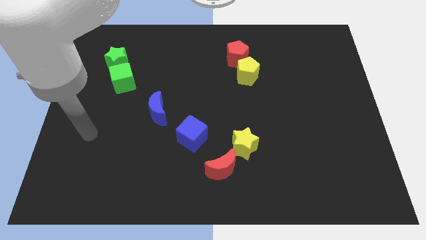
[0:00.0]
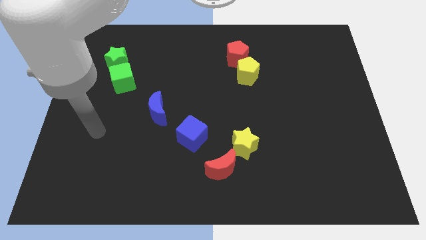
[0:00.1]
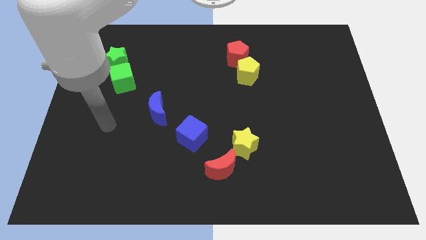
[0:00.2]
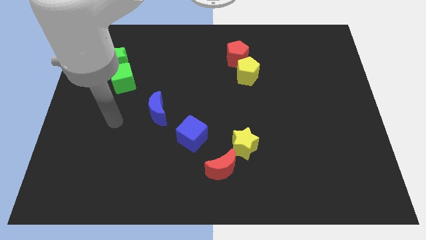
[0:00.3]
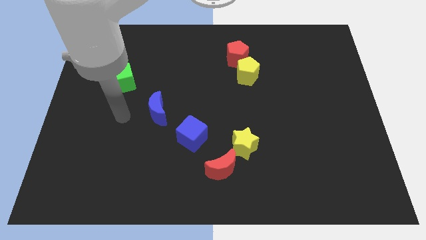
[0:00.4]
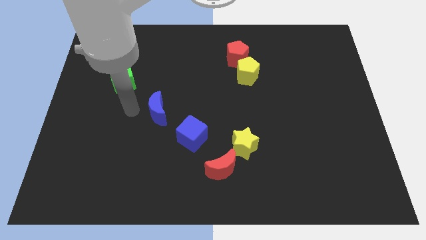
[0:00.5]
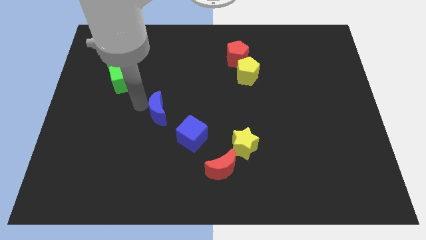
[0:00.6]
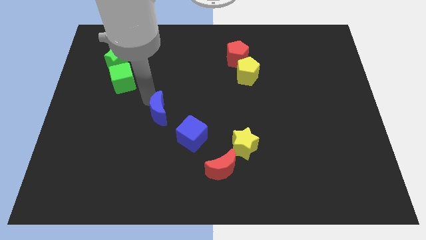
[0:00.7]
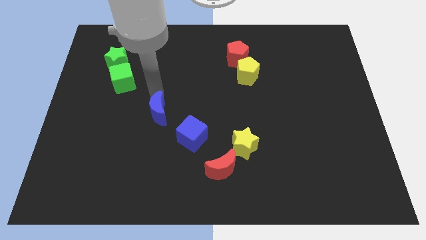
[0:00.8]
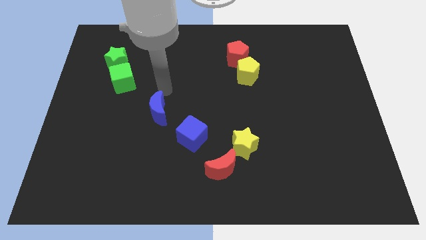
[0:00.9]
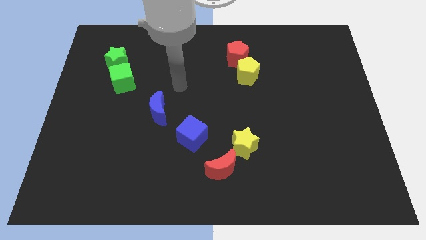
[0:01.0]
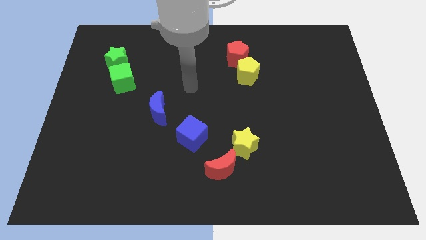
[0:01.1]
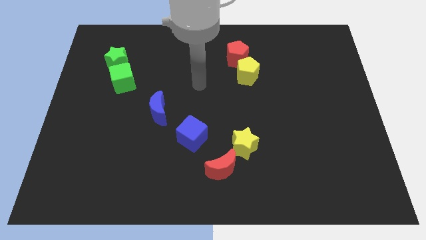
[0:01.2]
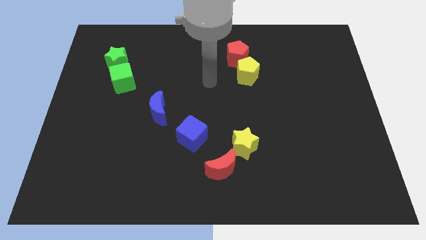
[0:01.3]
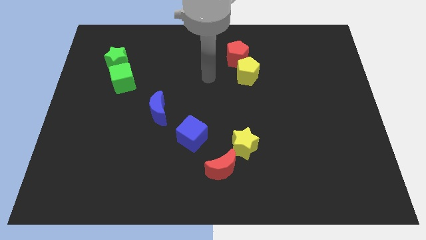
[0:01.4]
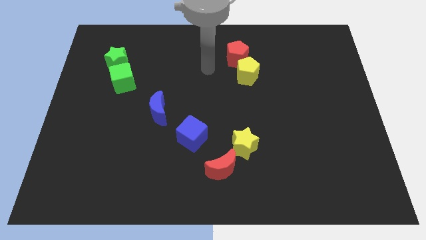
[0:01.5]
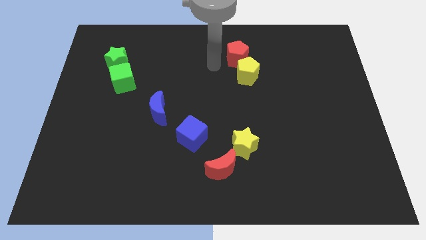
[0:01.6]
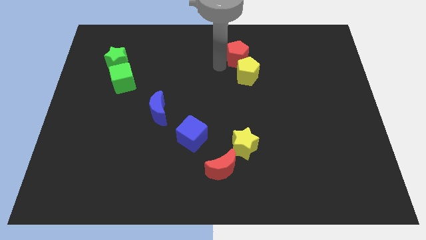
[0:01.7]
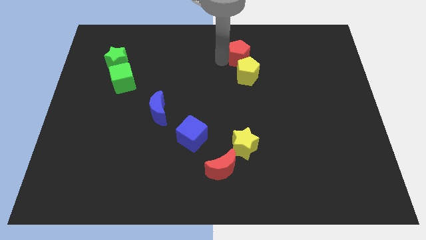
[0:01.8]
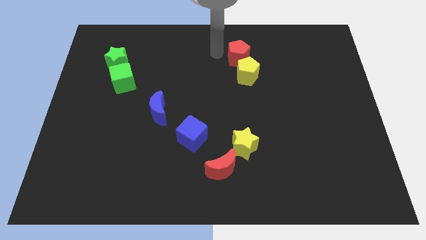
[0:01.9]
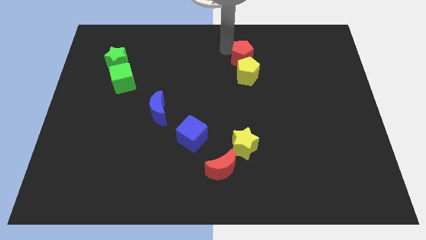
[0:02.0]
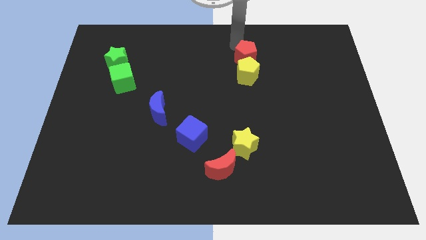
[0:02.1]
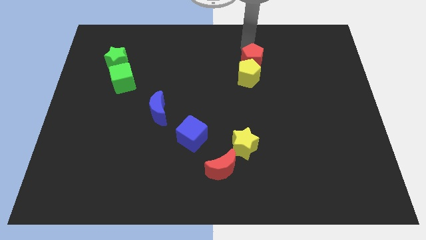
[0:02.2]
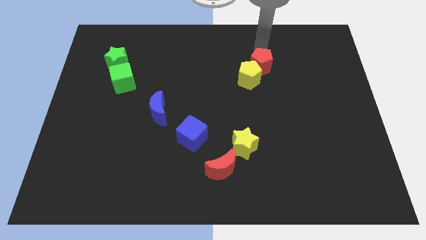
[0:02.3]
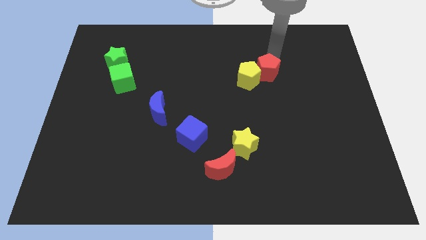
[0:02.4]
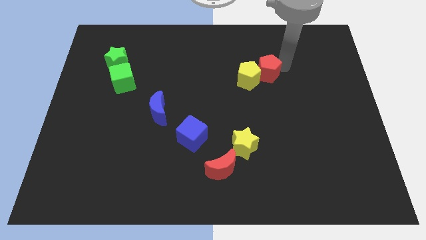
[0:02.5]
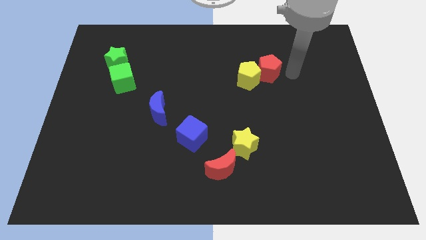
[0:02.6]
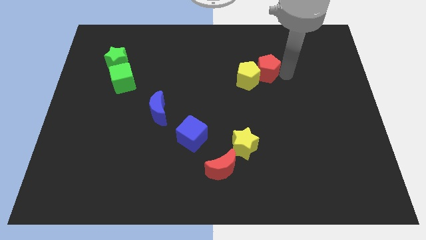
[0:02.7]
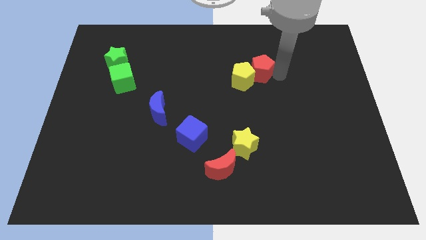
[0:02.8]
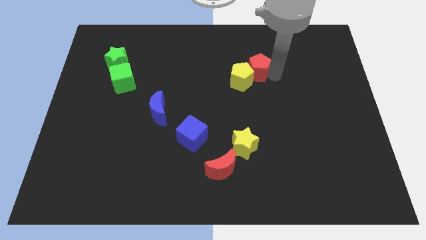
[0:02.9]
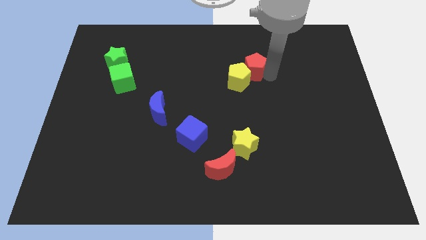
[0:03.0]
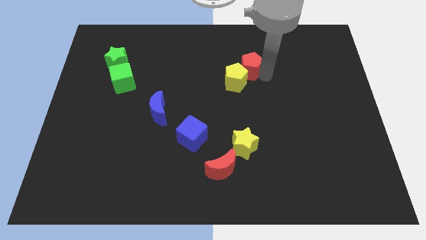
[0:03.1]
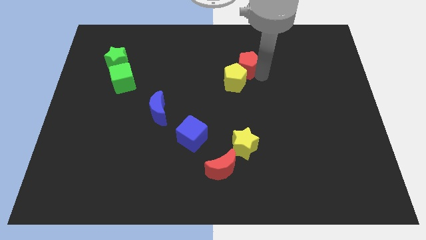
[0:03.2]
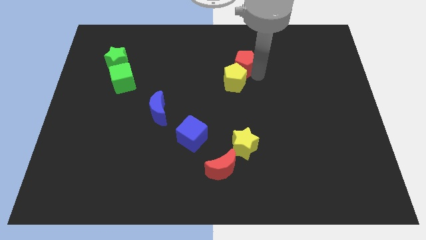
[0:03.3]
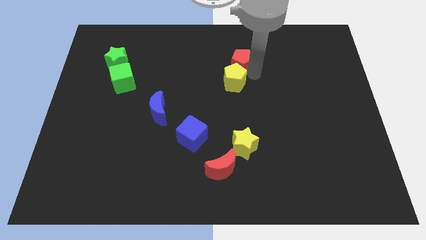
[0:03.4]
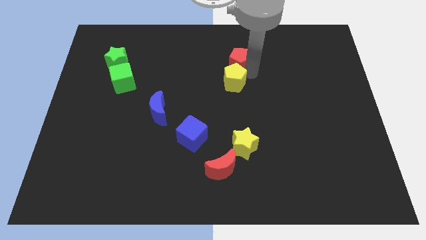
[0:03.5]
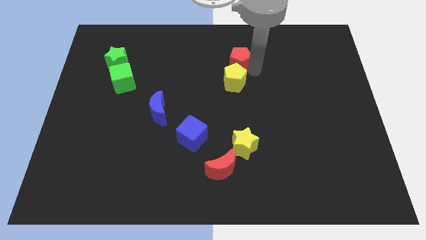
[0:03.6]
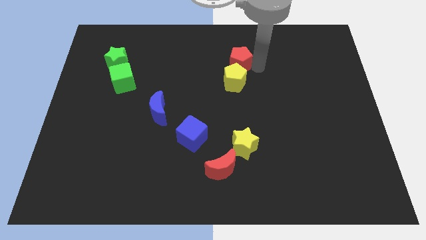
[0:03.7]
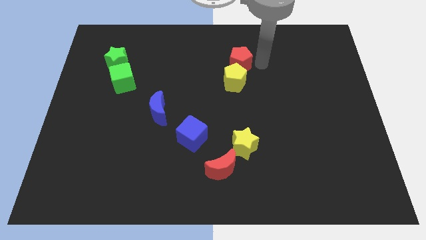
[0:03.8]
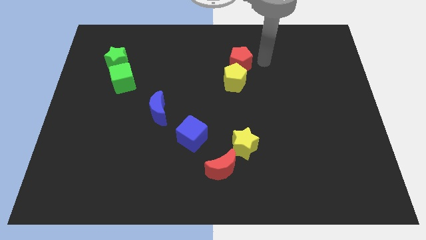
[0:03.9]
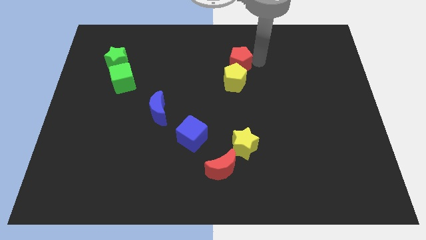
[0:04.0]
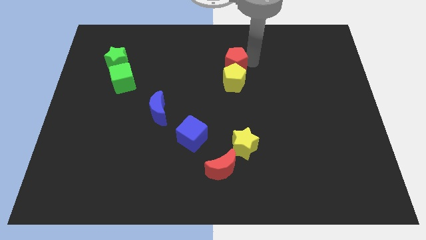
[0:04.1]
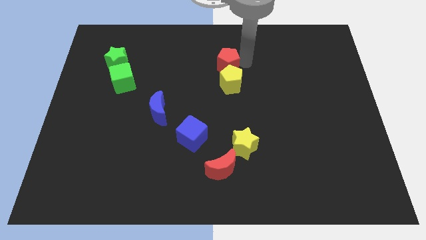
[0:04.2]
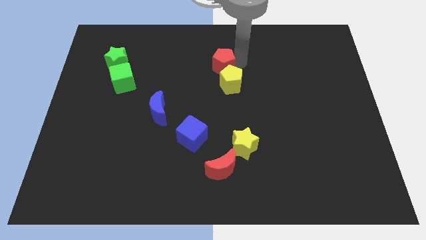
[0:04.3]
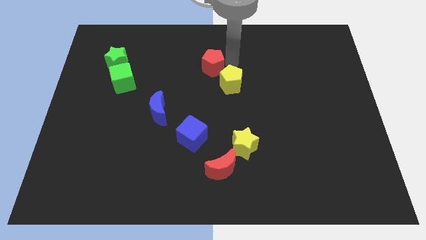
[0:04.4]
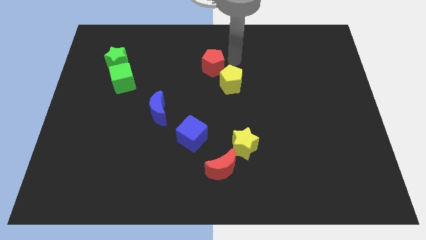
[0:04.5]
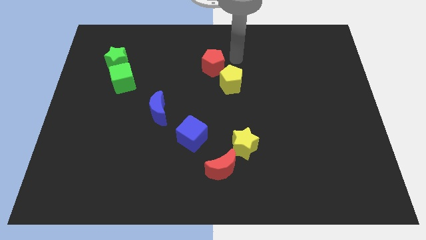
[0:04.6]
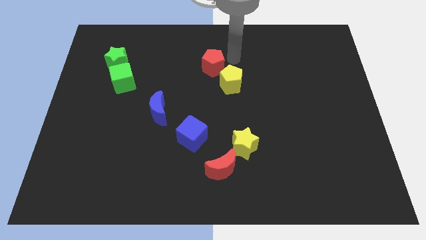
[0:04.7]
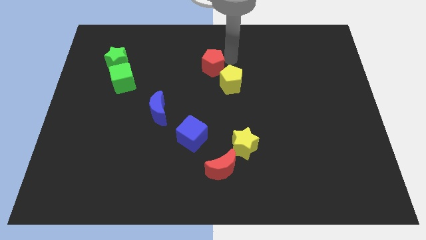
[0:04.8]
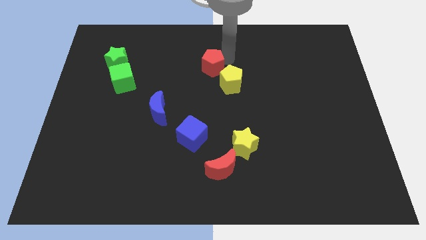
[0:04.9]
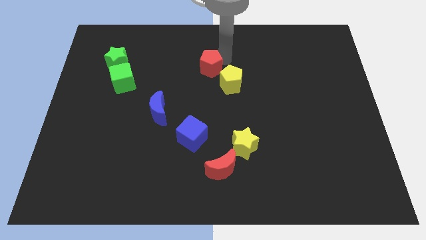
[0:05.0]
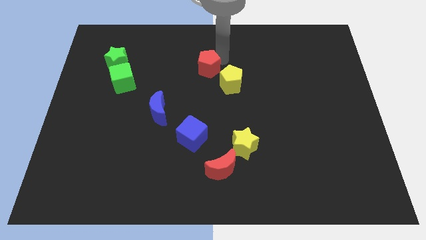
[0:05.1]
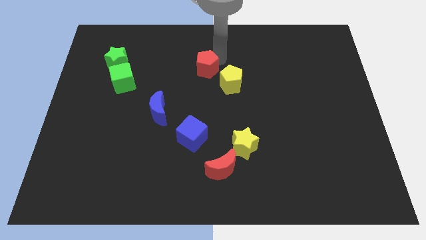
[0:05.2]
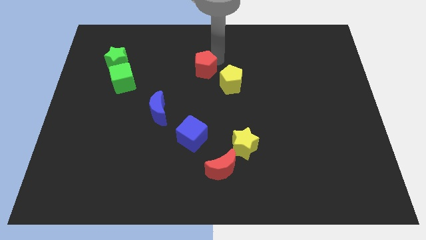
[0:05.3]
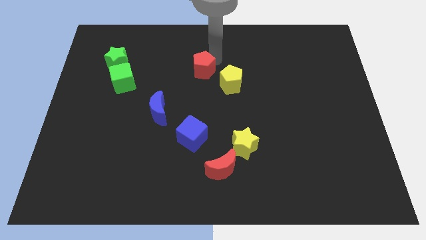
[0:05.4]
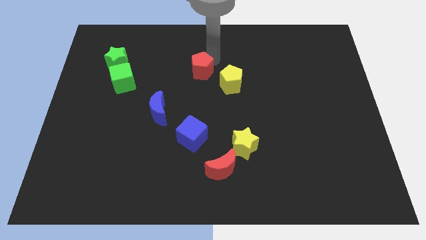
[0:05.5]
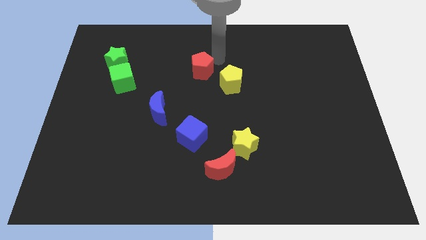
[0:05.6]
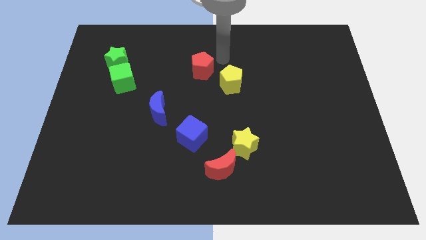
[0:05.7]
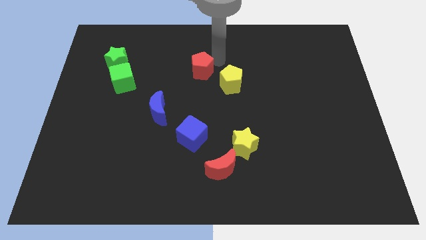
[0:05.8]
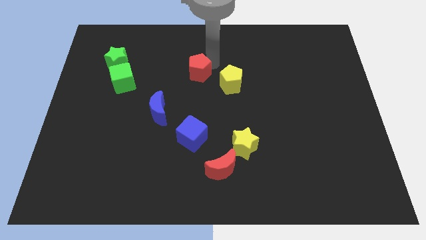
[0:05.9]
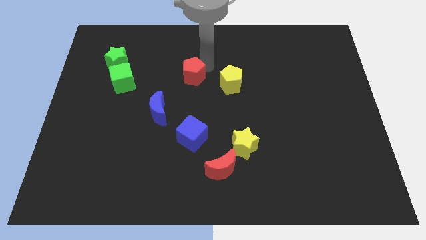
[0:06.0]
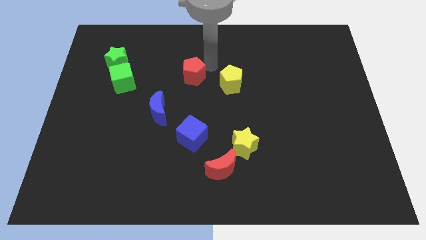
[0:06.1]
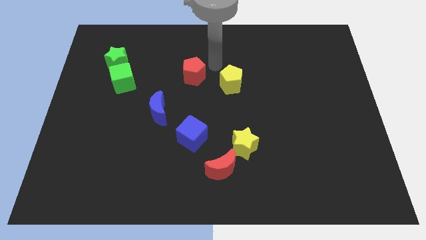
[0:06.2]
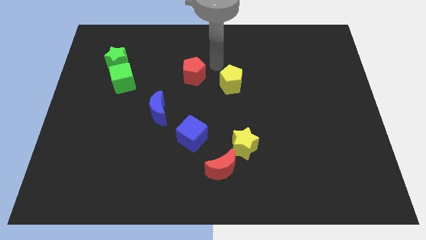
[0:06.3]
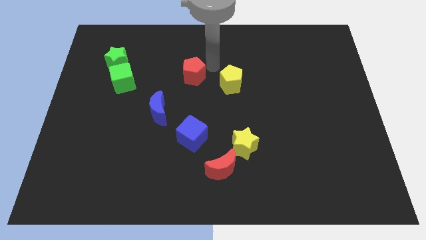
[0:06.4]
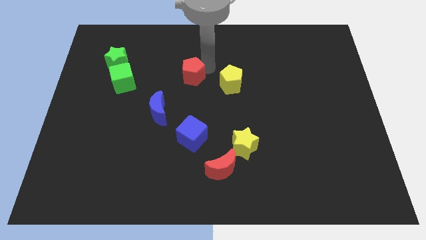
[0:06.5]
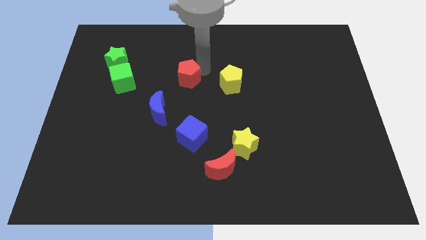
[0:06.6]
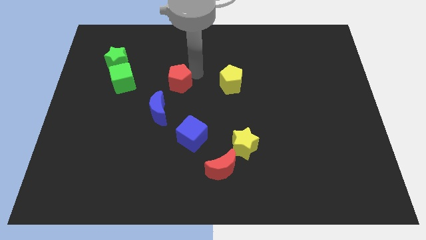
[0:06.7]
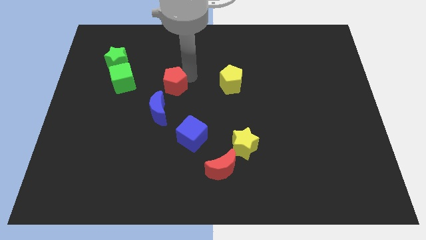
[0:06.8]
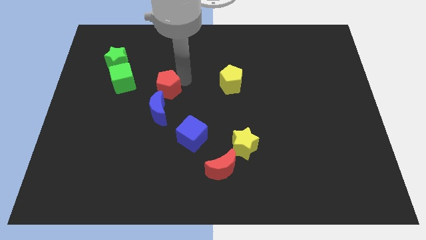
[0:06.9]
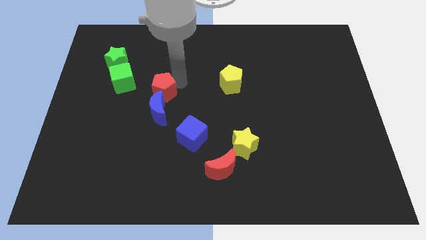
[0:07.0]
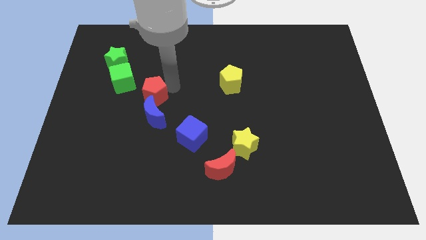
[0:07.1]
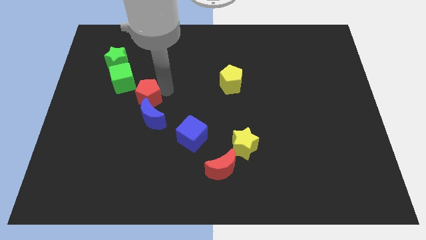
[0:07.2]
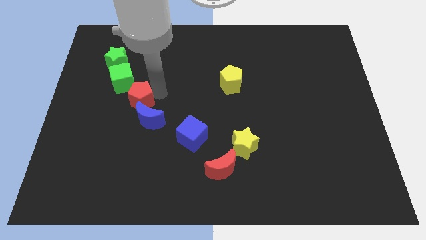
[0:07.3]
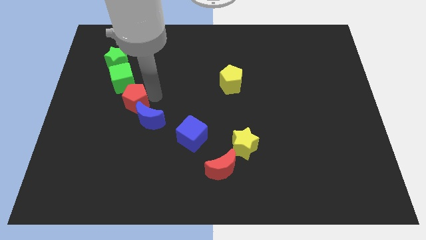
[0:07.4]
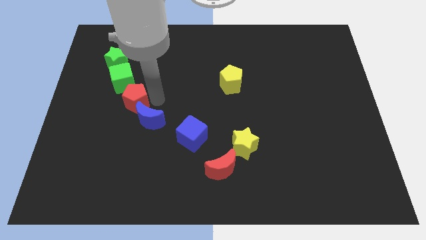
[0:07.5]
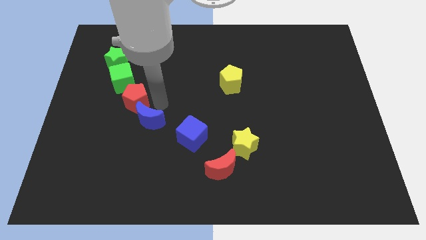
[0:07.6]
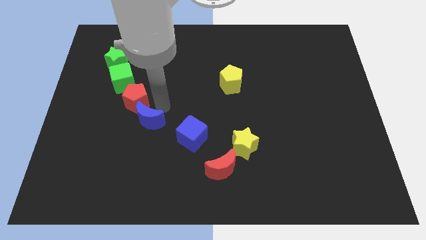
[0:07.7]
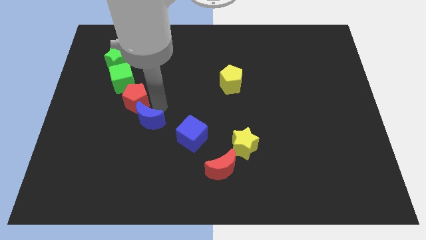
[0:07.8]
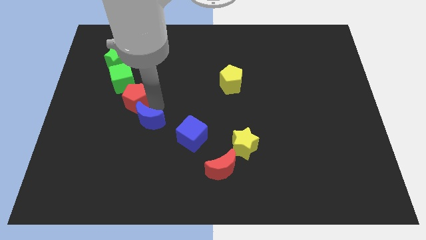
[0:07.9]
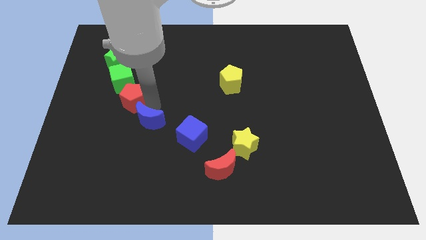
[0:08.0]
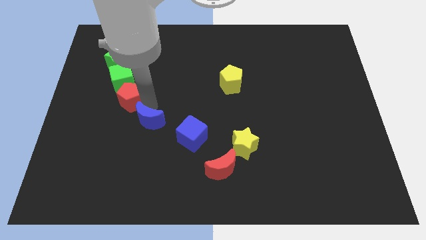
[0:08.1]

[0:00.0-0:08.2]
slide the red pentagon below the green star

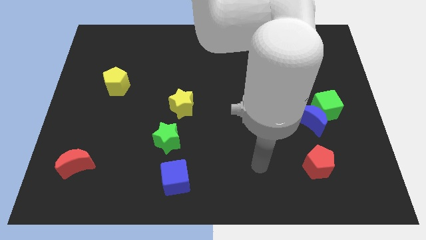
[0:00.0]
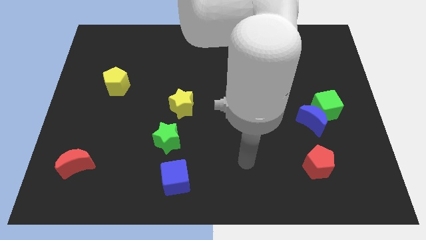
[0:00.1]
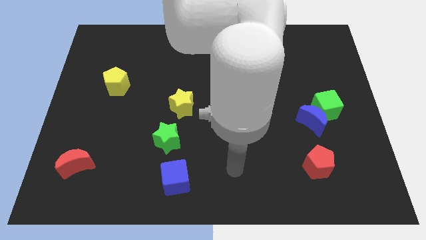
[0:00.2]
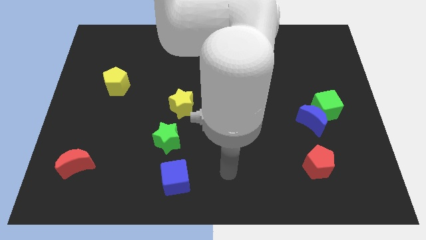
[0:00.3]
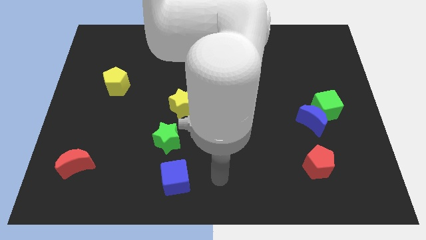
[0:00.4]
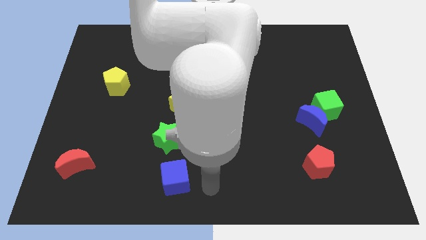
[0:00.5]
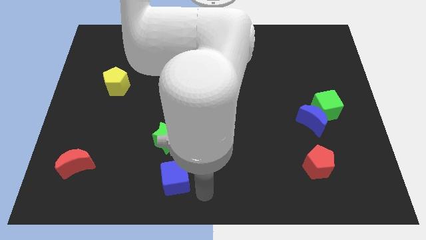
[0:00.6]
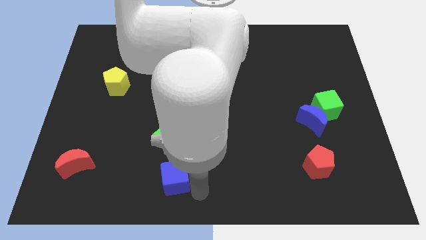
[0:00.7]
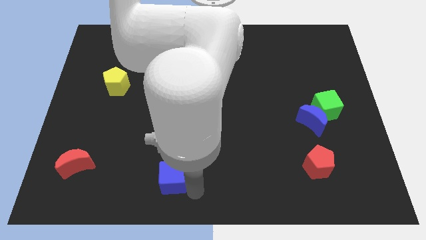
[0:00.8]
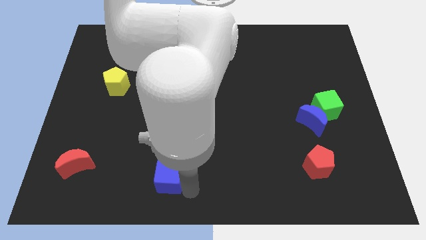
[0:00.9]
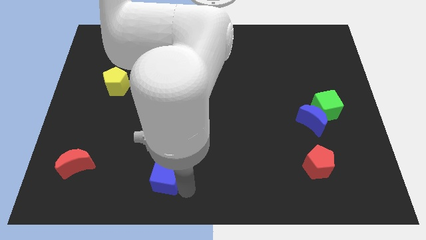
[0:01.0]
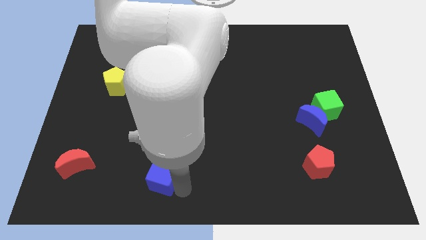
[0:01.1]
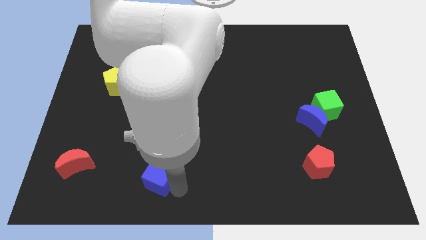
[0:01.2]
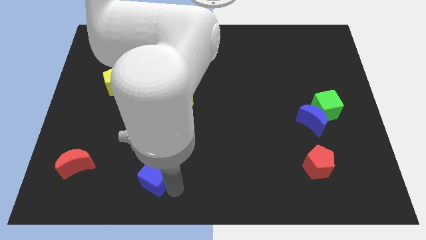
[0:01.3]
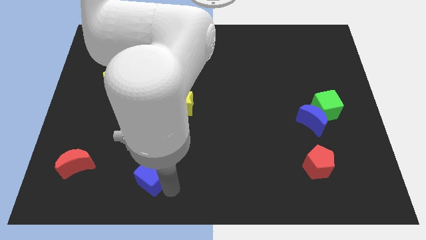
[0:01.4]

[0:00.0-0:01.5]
put the blue cube diagonally down and to the left of the green star
